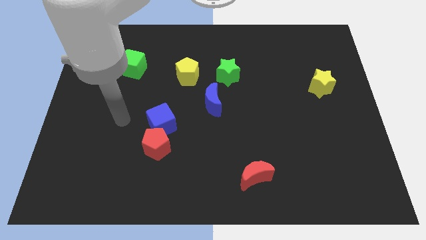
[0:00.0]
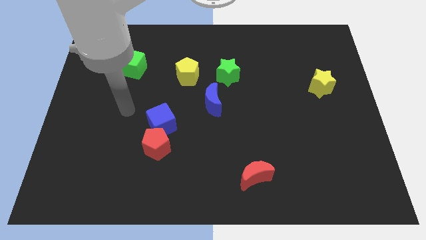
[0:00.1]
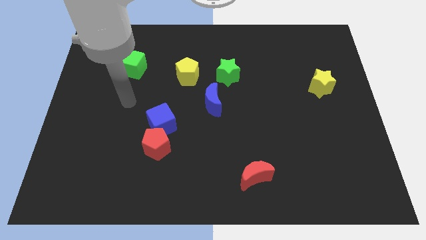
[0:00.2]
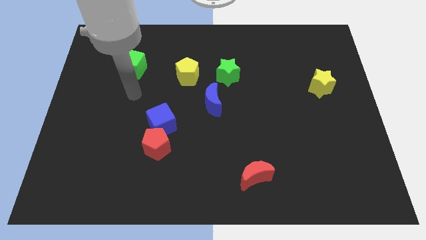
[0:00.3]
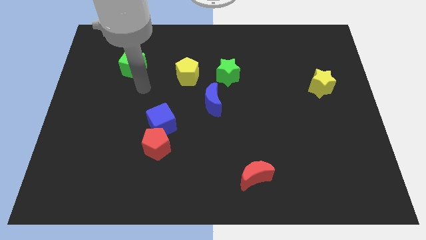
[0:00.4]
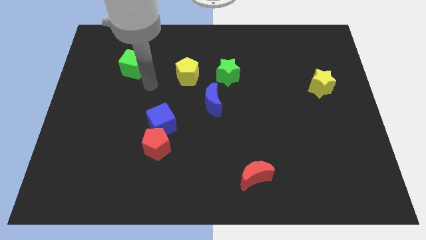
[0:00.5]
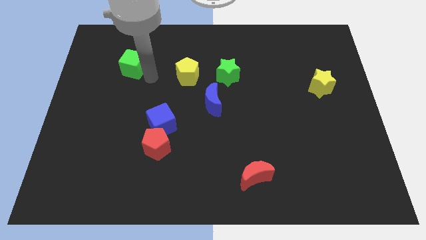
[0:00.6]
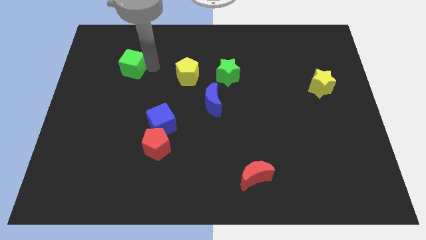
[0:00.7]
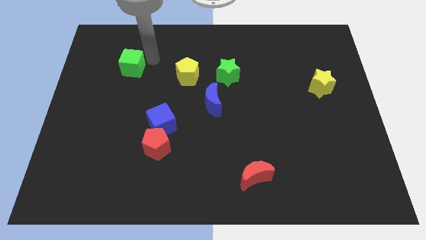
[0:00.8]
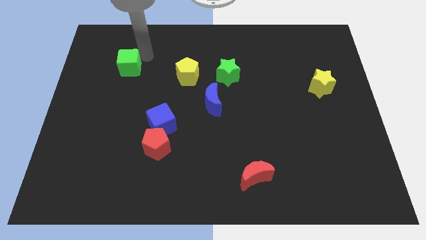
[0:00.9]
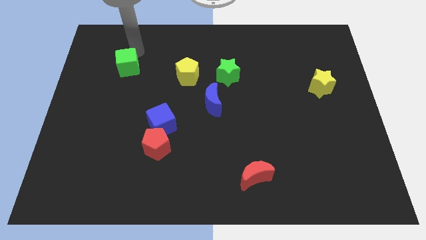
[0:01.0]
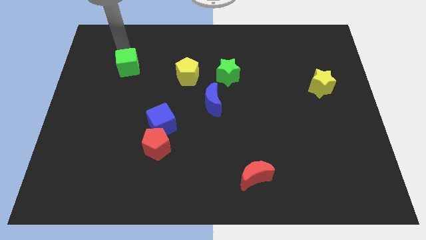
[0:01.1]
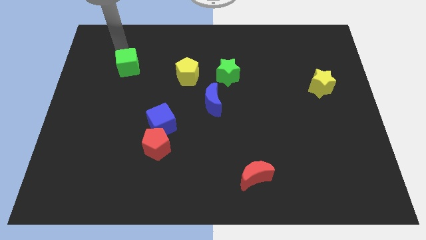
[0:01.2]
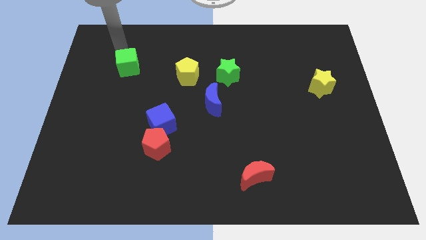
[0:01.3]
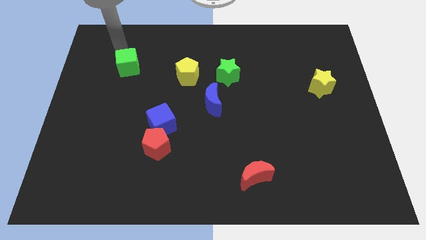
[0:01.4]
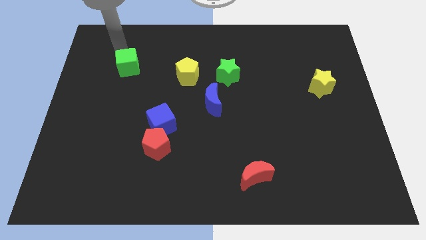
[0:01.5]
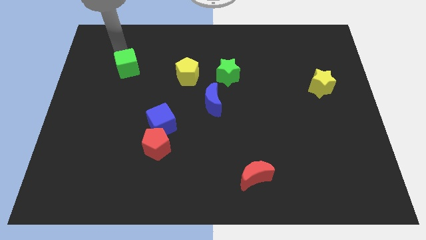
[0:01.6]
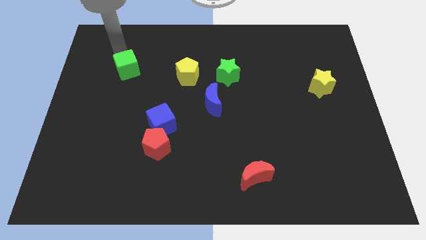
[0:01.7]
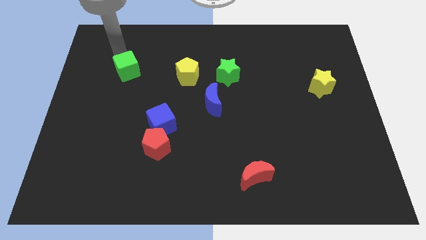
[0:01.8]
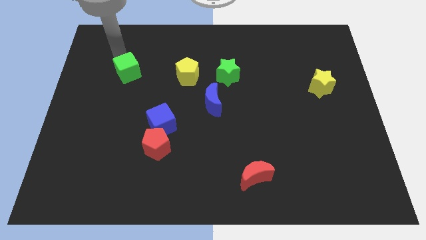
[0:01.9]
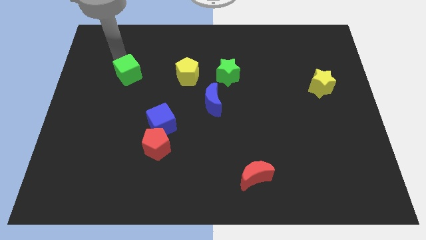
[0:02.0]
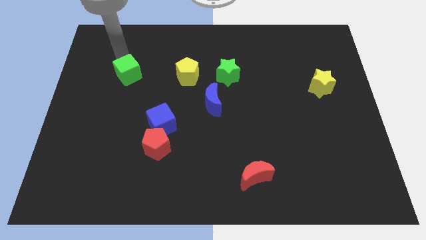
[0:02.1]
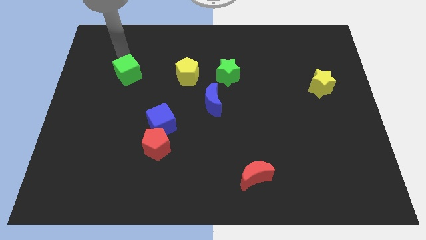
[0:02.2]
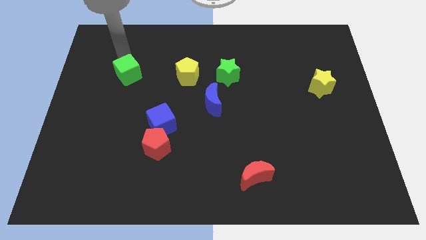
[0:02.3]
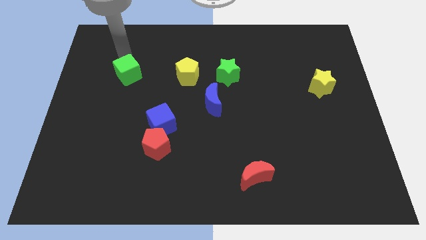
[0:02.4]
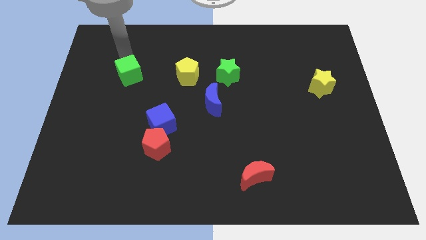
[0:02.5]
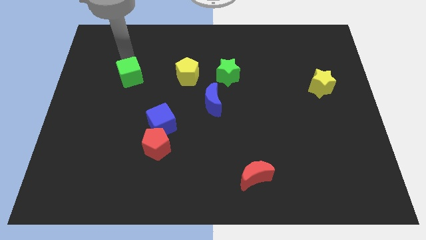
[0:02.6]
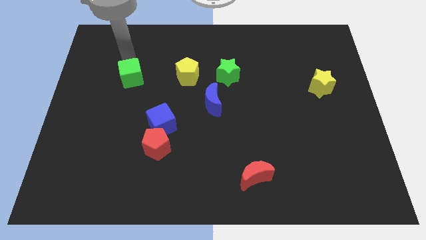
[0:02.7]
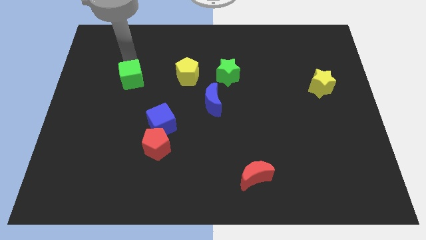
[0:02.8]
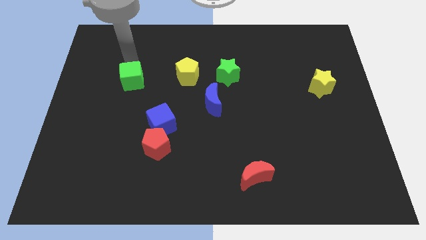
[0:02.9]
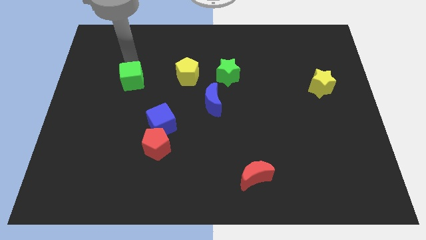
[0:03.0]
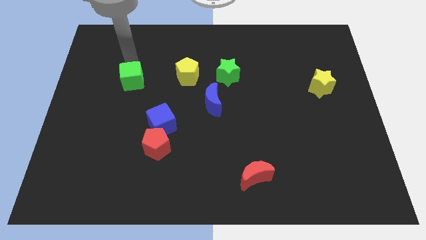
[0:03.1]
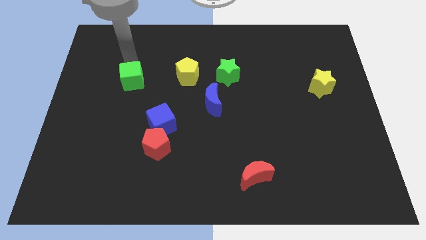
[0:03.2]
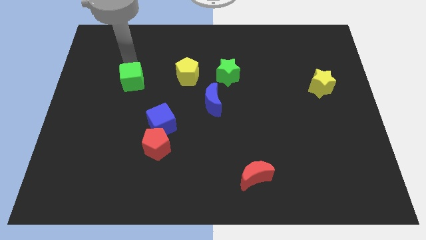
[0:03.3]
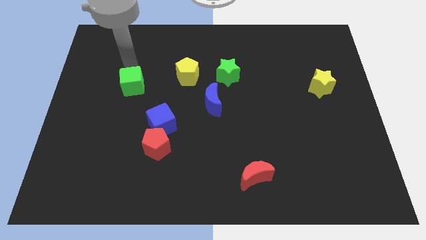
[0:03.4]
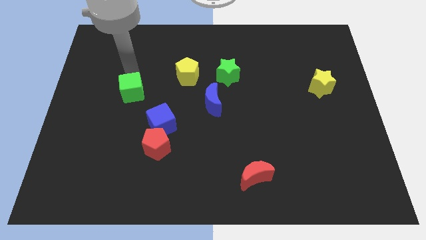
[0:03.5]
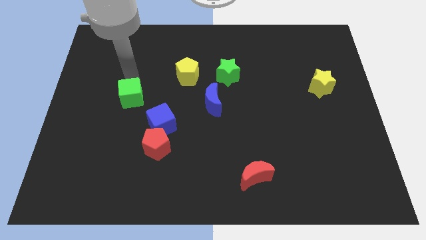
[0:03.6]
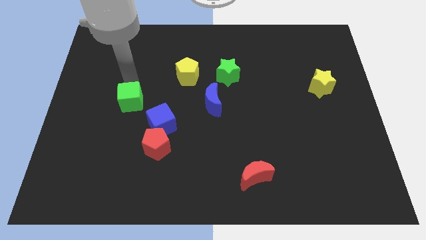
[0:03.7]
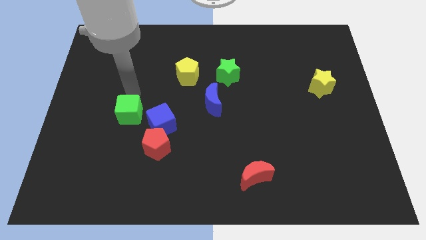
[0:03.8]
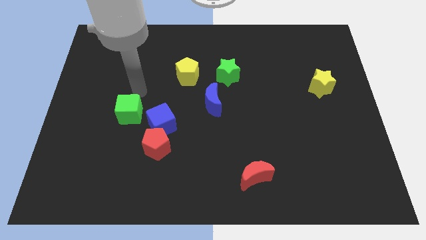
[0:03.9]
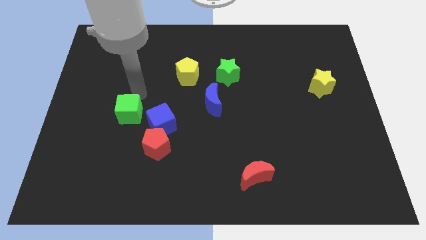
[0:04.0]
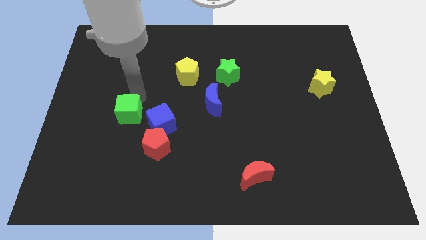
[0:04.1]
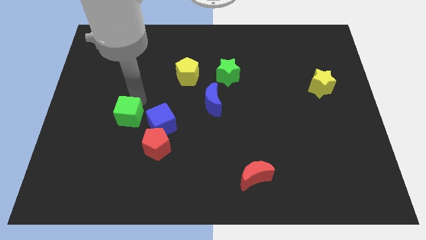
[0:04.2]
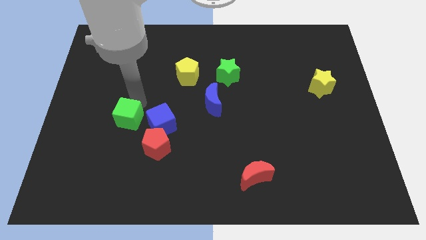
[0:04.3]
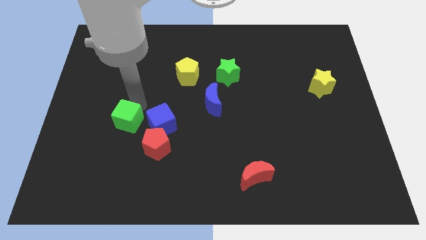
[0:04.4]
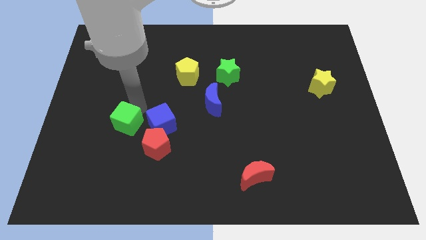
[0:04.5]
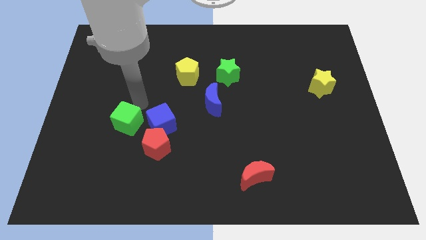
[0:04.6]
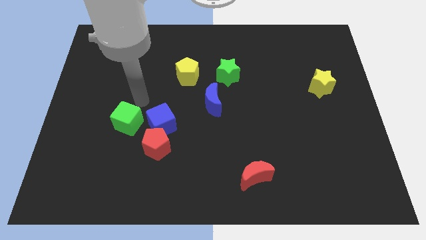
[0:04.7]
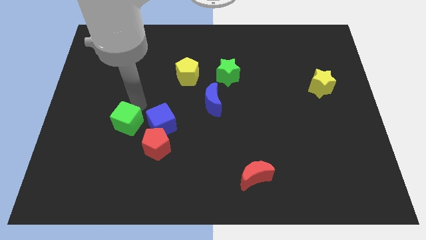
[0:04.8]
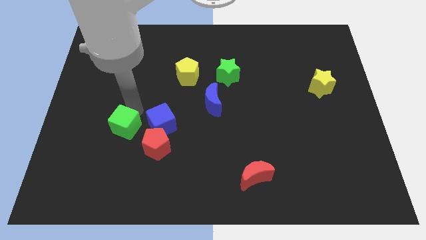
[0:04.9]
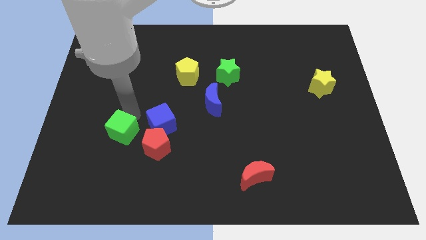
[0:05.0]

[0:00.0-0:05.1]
move the green cube downwards

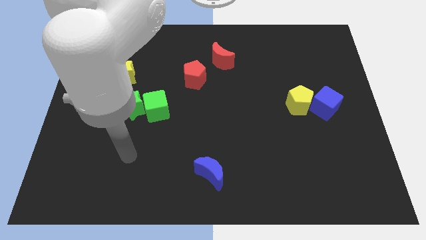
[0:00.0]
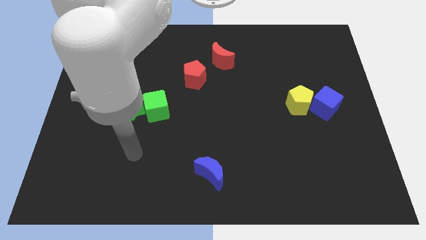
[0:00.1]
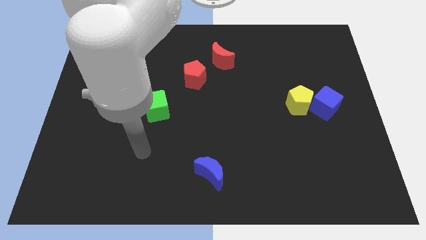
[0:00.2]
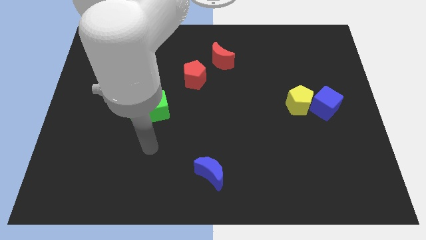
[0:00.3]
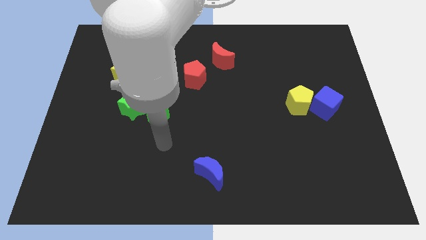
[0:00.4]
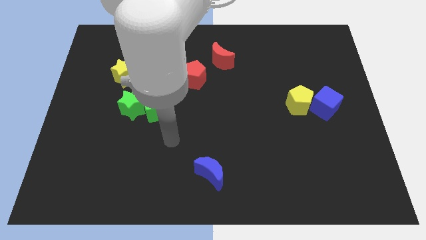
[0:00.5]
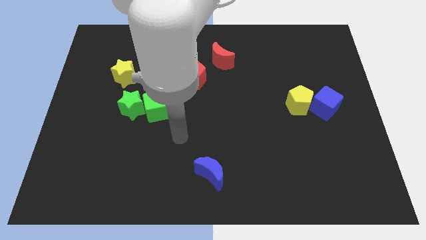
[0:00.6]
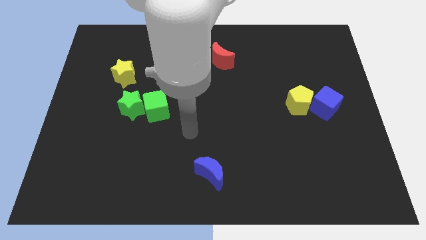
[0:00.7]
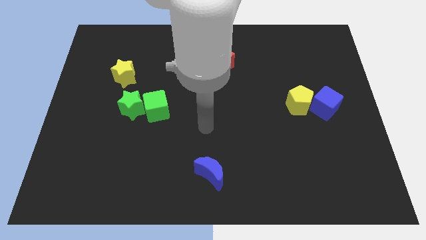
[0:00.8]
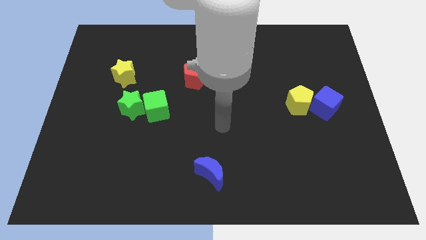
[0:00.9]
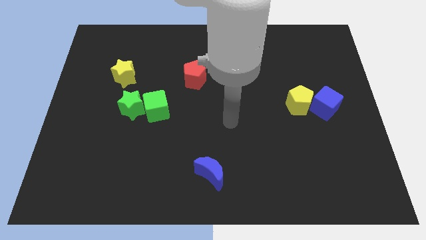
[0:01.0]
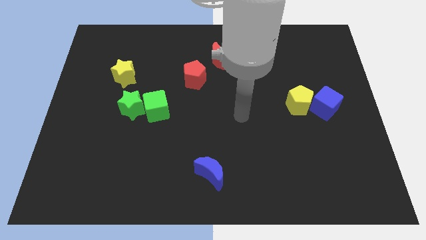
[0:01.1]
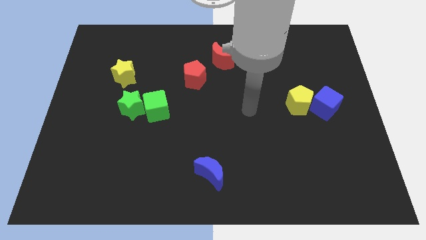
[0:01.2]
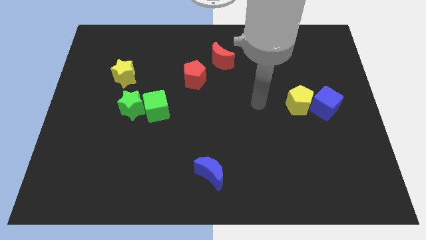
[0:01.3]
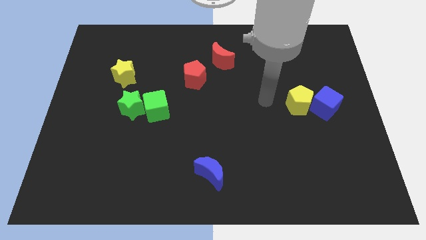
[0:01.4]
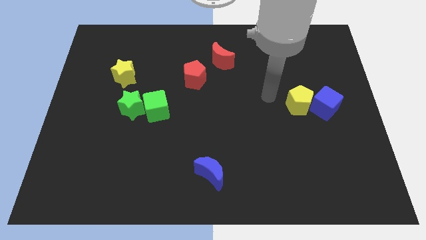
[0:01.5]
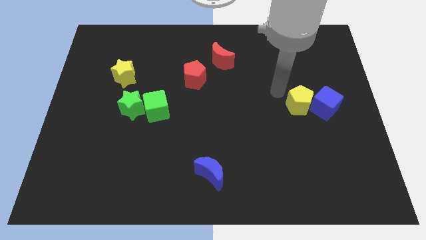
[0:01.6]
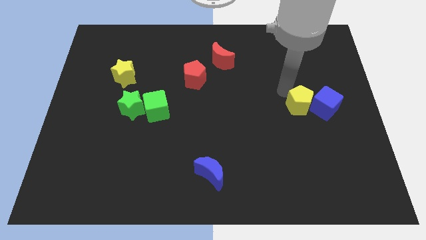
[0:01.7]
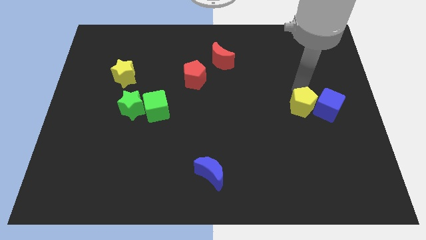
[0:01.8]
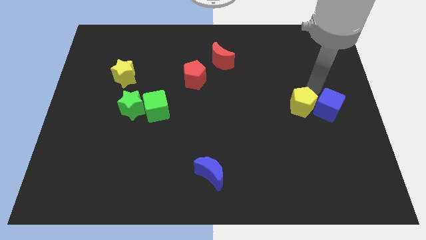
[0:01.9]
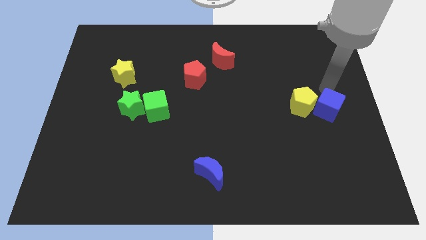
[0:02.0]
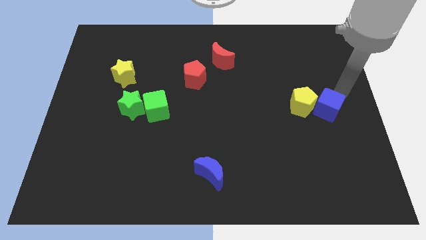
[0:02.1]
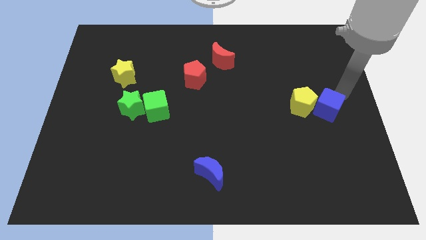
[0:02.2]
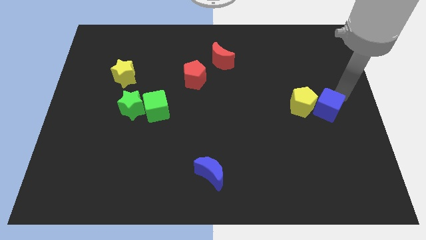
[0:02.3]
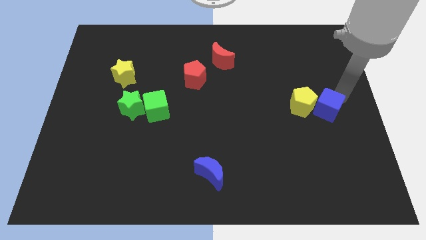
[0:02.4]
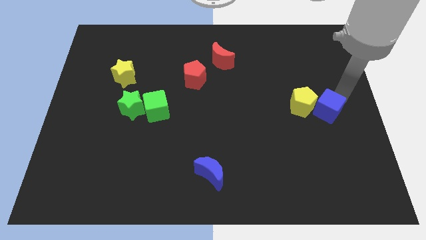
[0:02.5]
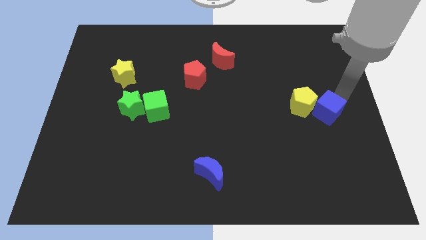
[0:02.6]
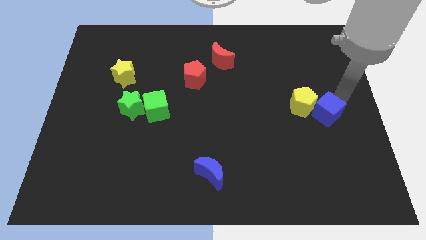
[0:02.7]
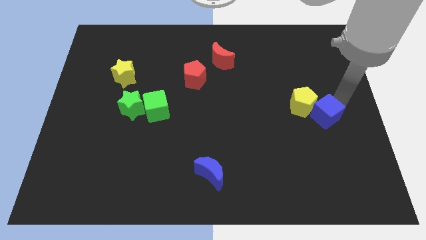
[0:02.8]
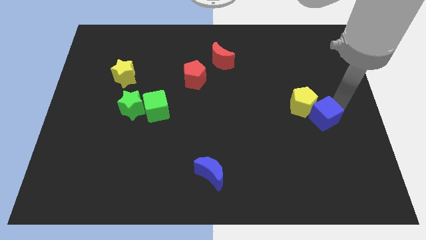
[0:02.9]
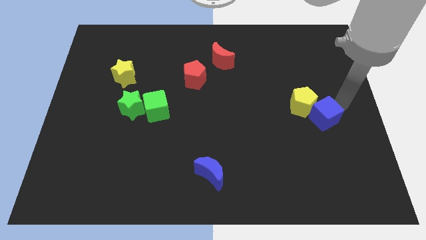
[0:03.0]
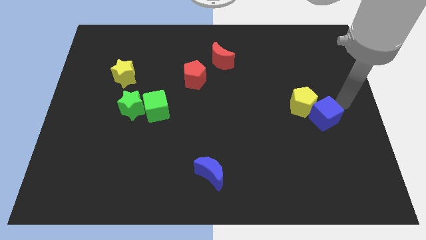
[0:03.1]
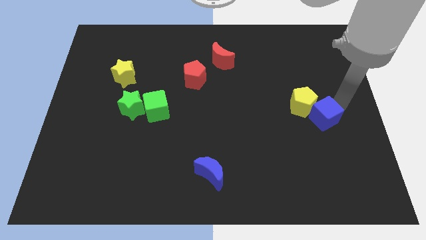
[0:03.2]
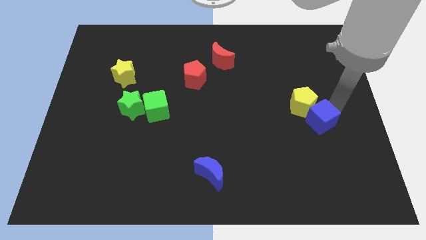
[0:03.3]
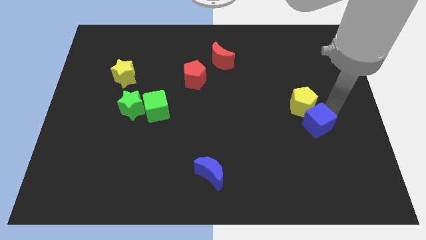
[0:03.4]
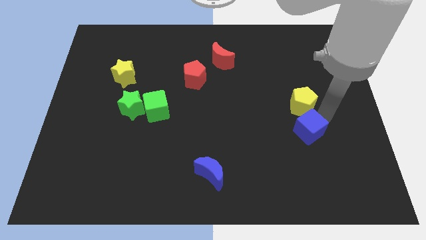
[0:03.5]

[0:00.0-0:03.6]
slightly move the blue cube diagonally downwards and to the left
